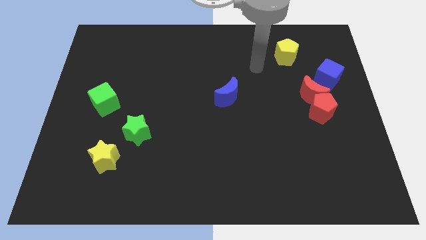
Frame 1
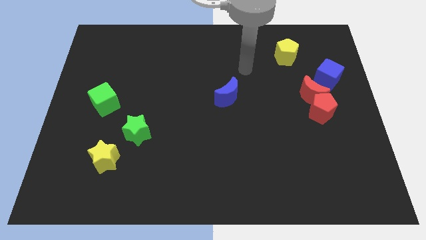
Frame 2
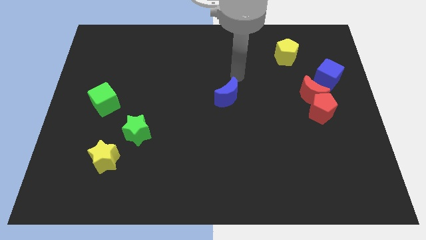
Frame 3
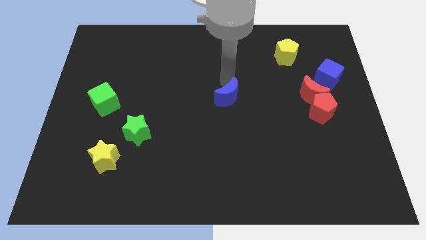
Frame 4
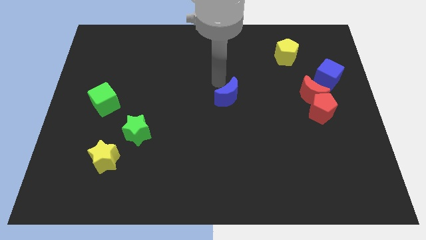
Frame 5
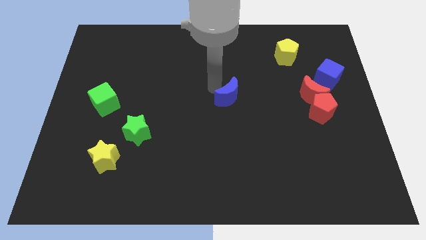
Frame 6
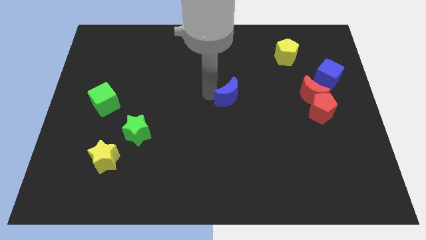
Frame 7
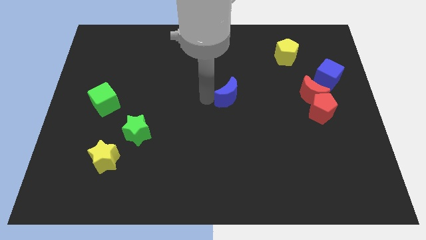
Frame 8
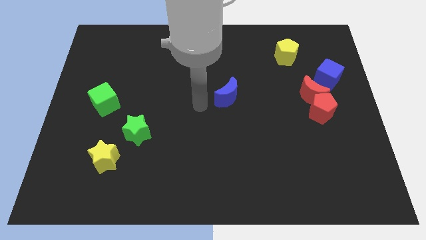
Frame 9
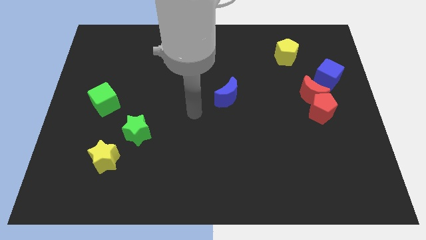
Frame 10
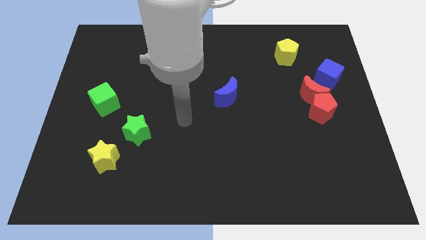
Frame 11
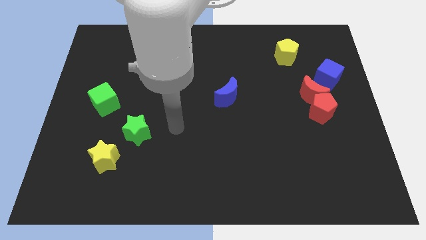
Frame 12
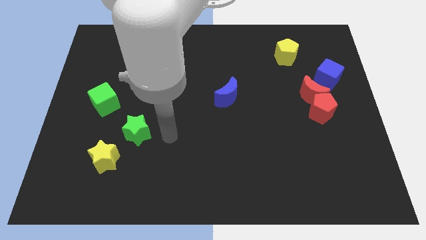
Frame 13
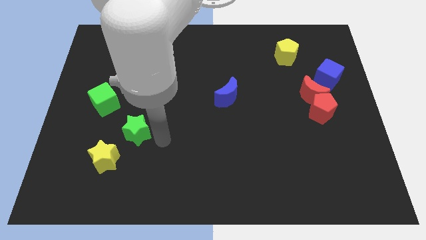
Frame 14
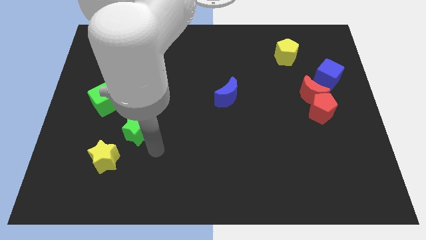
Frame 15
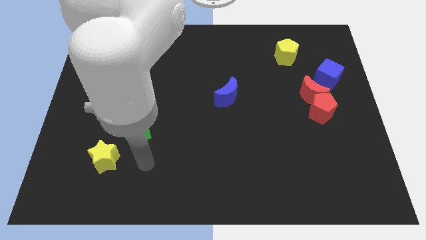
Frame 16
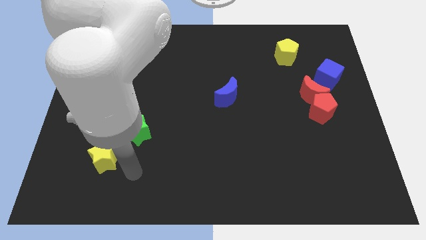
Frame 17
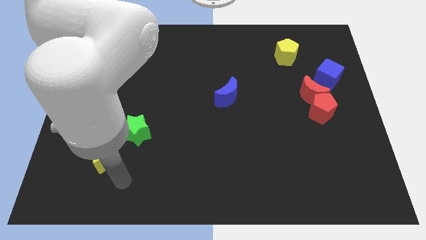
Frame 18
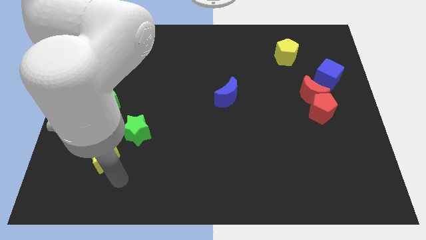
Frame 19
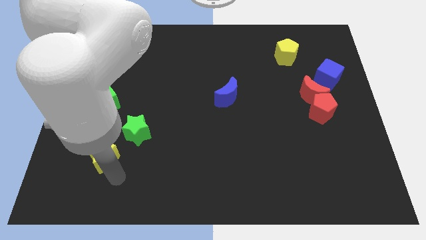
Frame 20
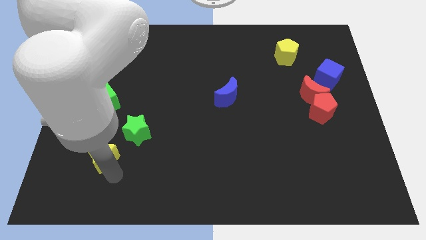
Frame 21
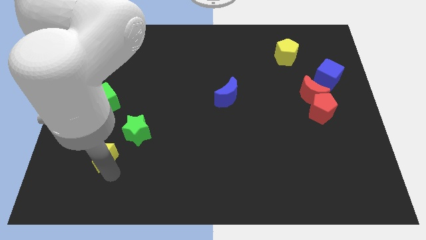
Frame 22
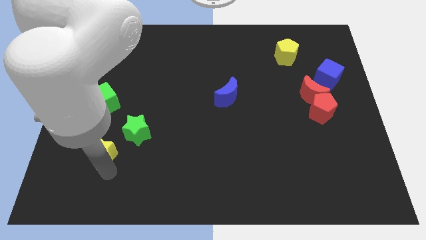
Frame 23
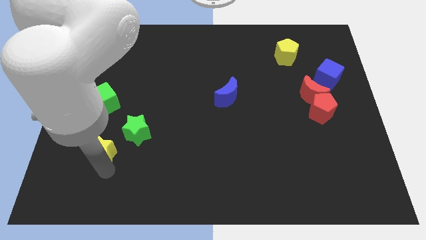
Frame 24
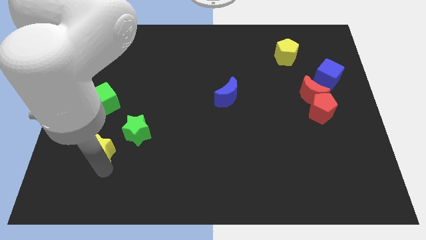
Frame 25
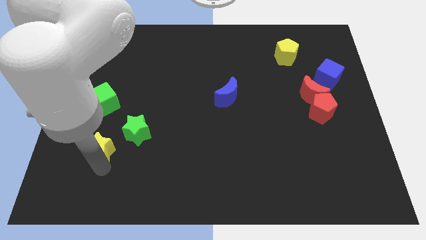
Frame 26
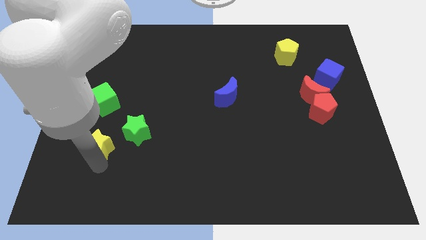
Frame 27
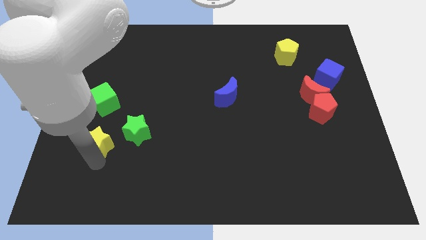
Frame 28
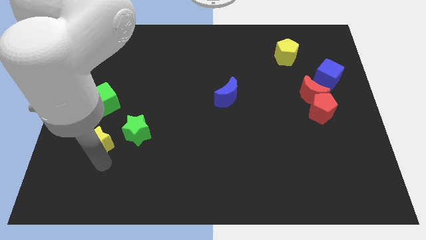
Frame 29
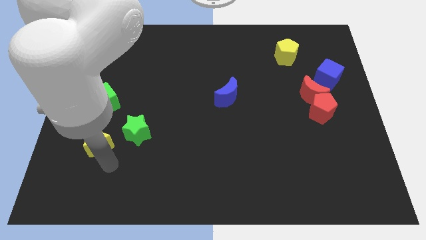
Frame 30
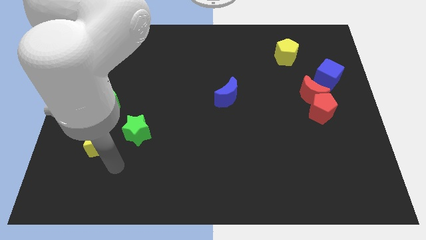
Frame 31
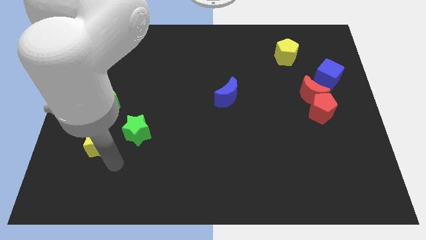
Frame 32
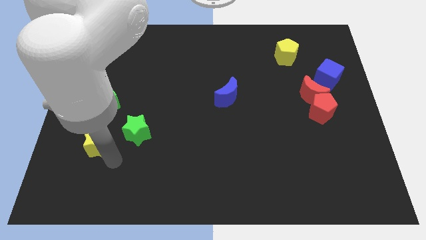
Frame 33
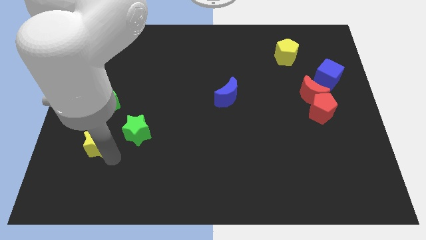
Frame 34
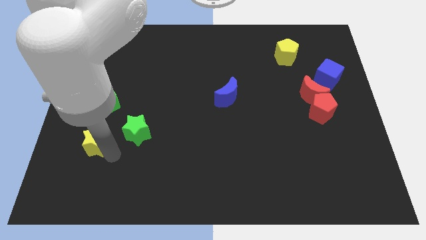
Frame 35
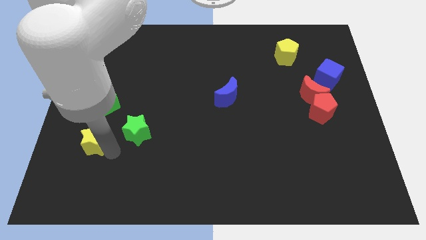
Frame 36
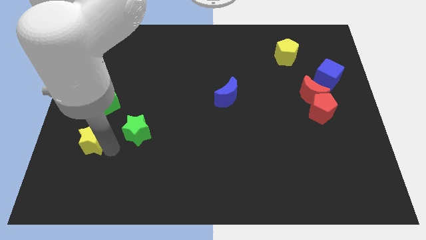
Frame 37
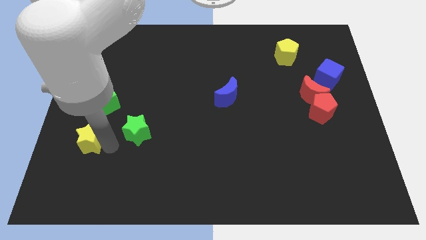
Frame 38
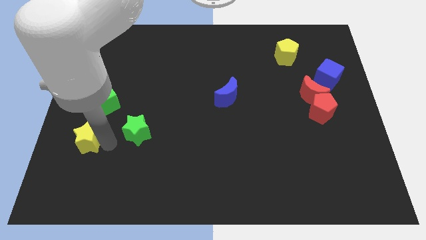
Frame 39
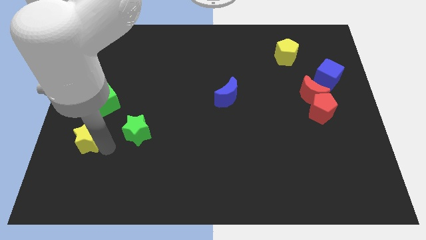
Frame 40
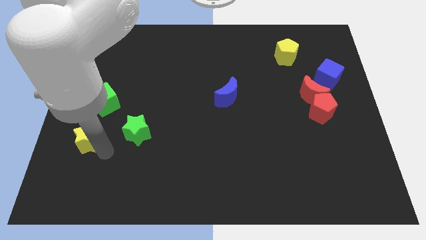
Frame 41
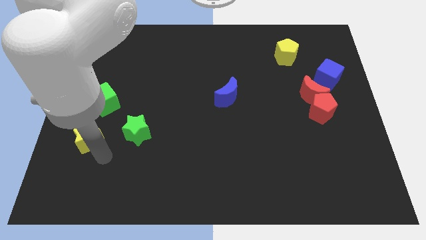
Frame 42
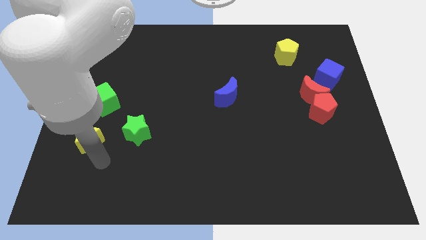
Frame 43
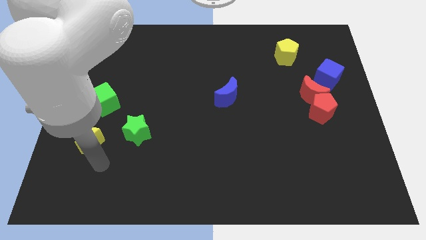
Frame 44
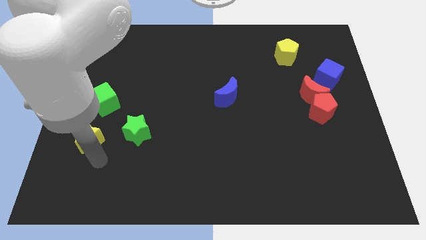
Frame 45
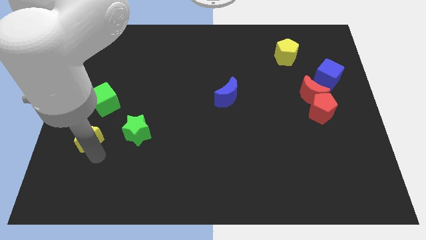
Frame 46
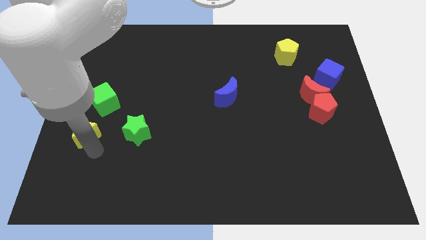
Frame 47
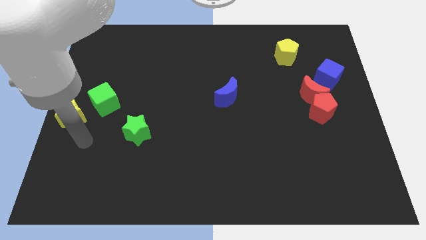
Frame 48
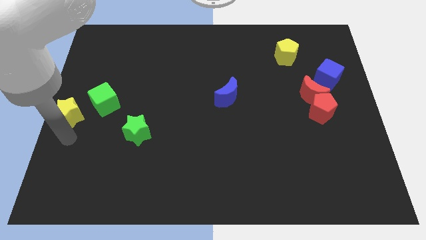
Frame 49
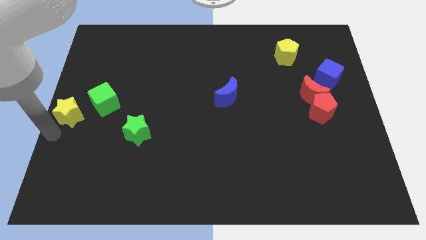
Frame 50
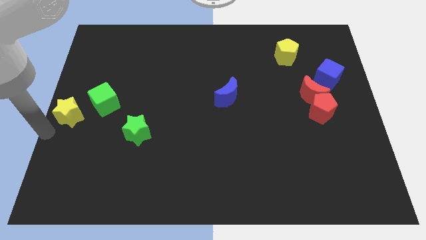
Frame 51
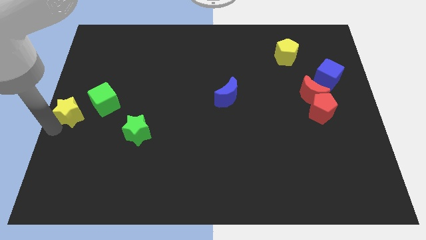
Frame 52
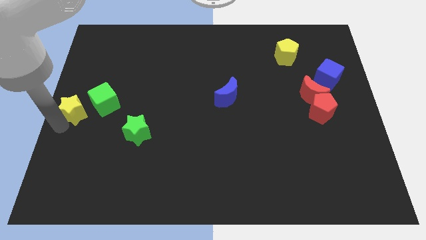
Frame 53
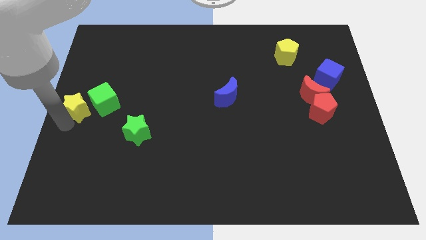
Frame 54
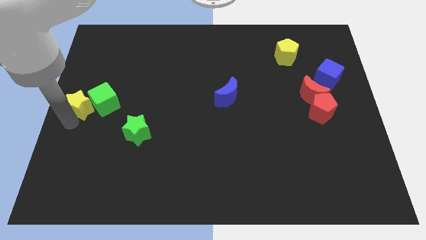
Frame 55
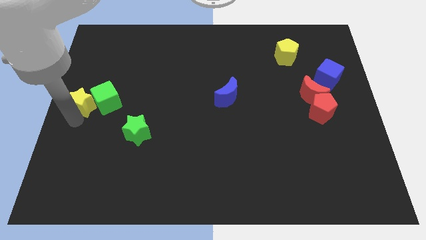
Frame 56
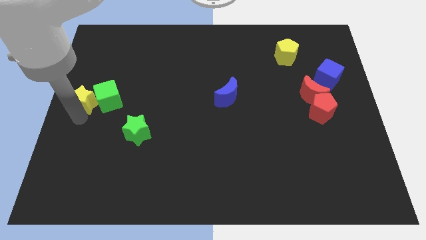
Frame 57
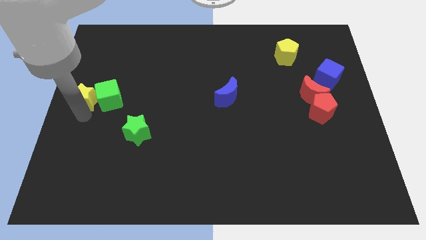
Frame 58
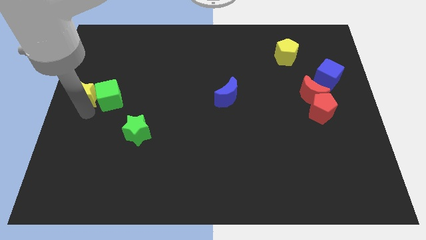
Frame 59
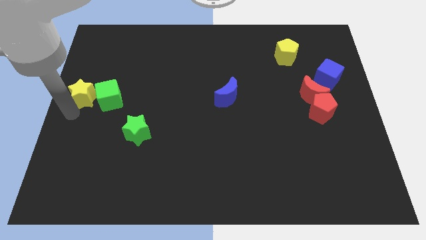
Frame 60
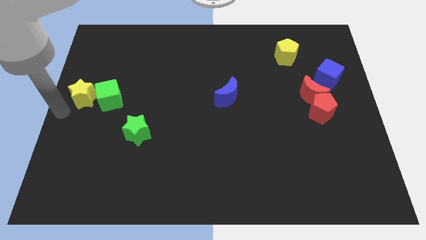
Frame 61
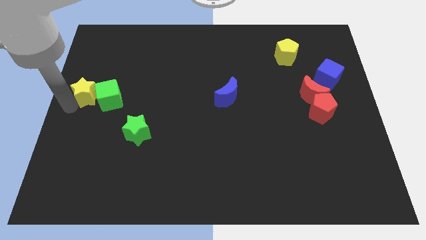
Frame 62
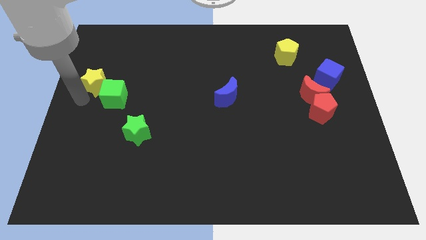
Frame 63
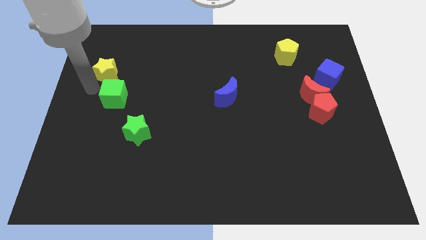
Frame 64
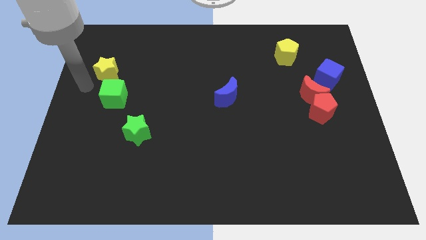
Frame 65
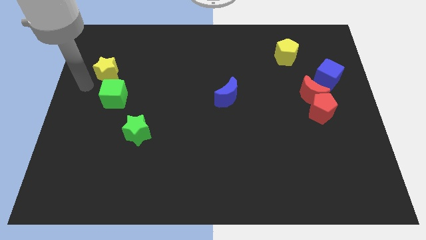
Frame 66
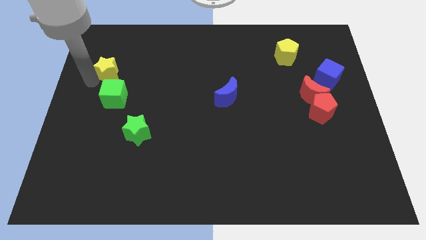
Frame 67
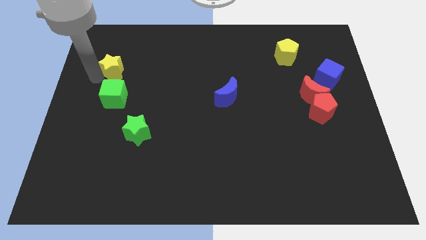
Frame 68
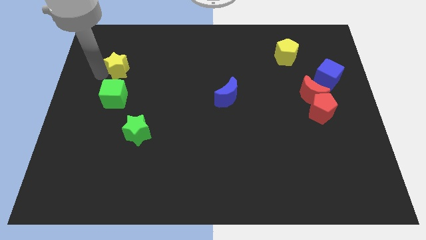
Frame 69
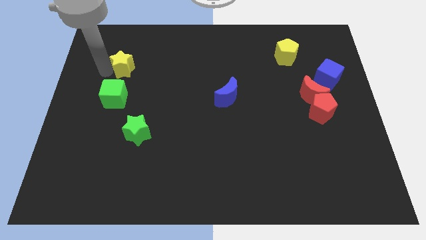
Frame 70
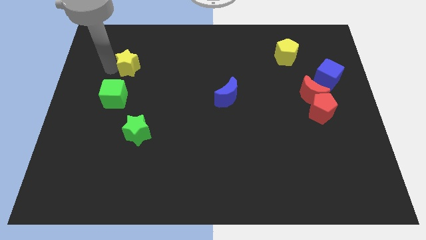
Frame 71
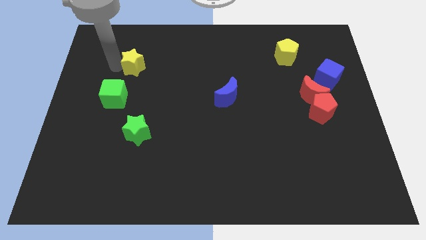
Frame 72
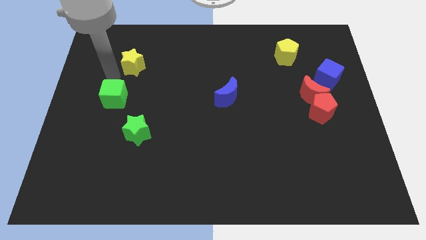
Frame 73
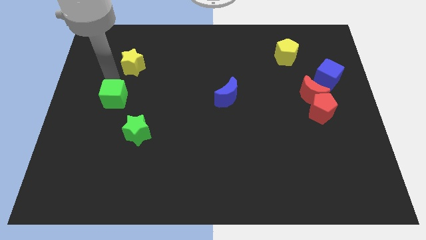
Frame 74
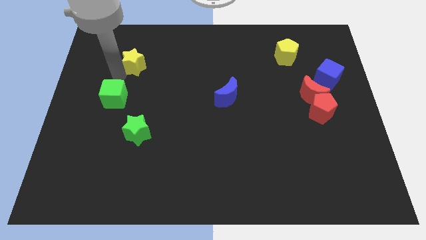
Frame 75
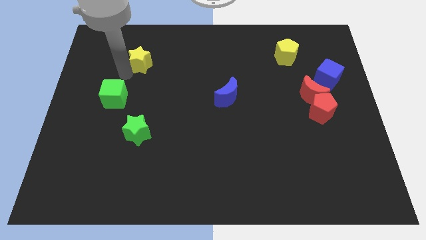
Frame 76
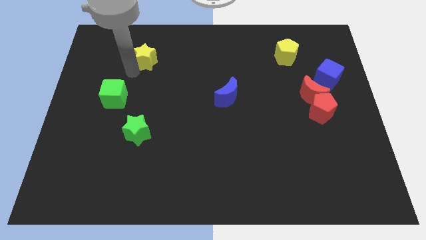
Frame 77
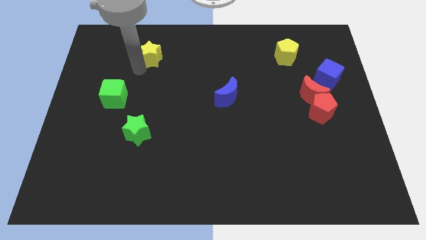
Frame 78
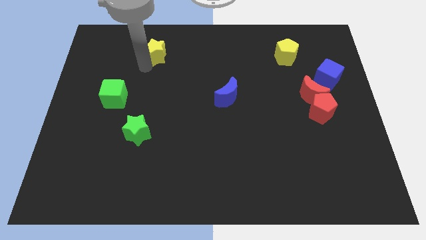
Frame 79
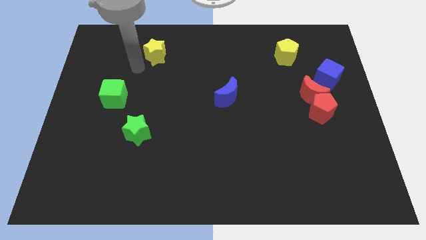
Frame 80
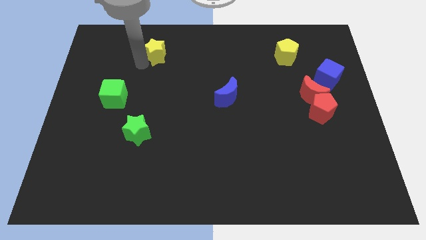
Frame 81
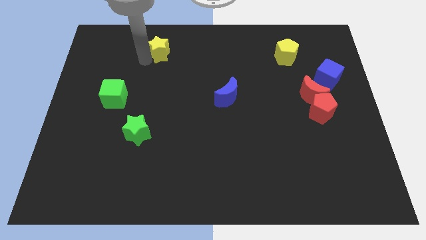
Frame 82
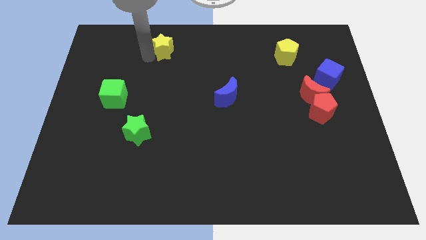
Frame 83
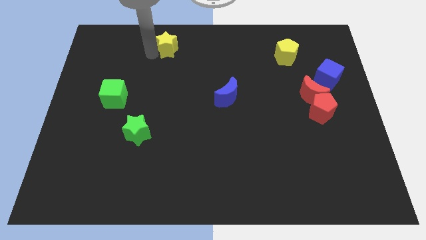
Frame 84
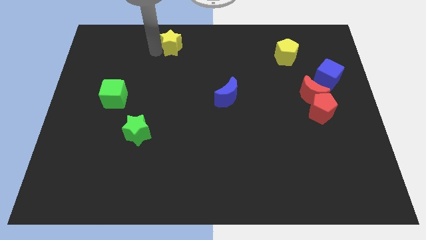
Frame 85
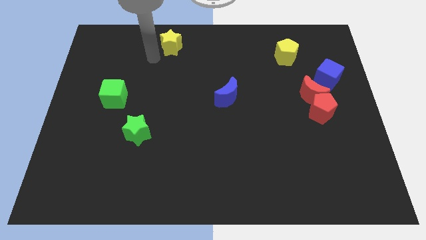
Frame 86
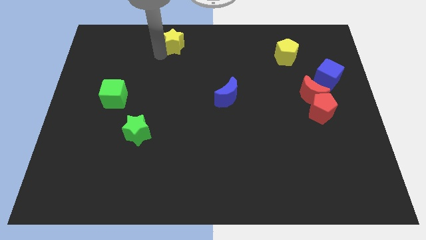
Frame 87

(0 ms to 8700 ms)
put the yellow star to the top side
